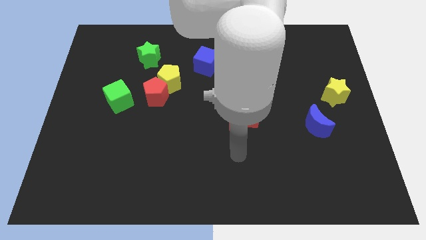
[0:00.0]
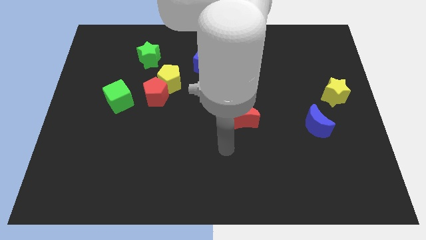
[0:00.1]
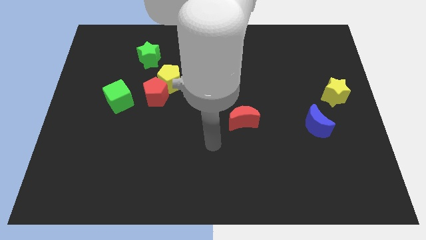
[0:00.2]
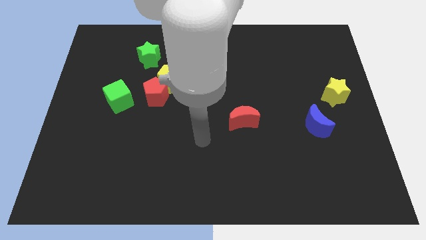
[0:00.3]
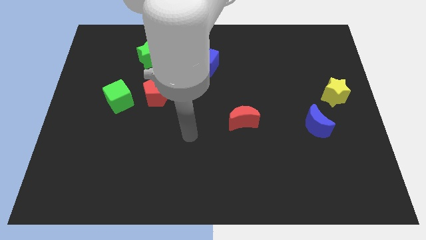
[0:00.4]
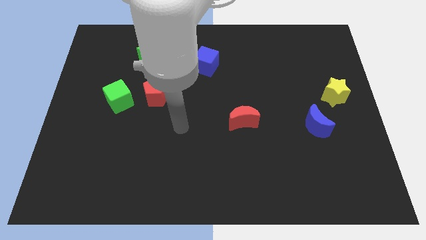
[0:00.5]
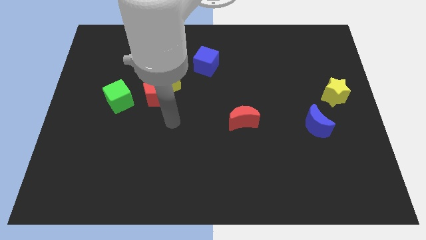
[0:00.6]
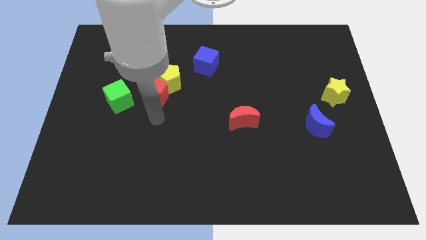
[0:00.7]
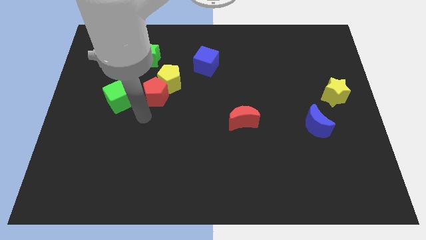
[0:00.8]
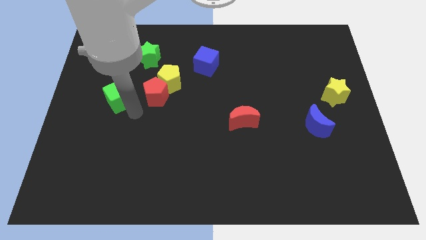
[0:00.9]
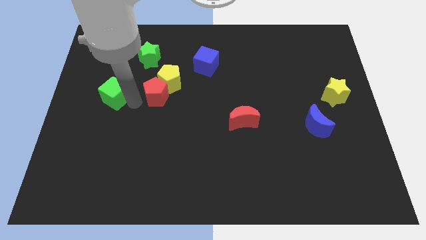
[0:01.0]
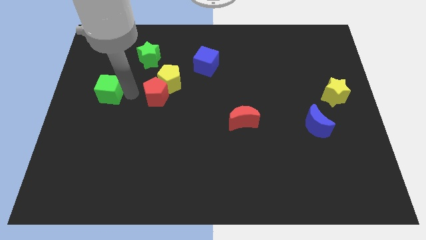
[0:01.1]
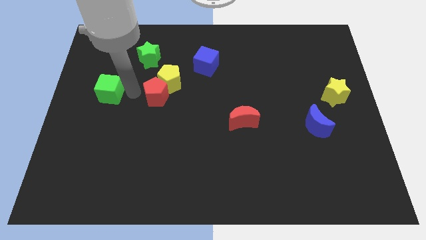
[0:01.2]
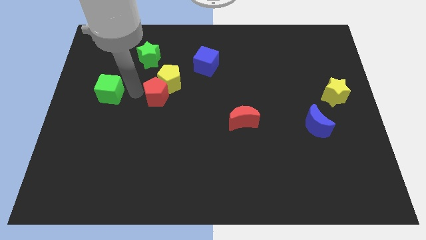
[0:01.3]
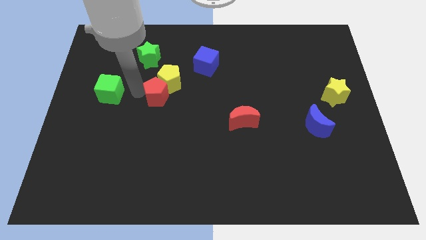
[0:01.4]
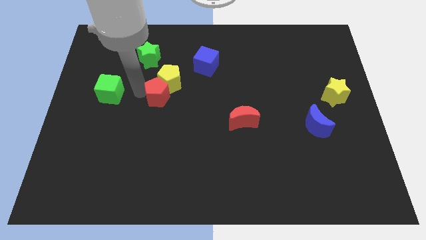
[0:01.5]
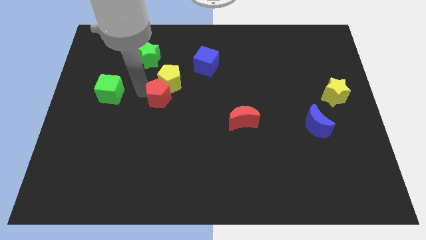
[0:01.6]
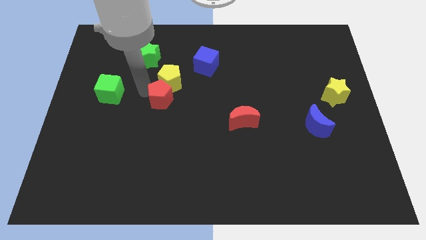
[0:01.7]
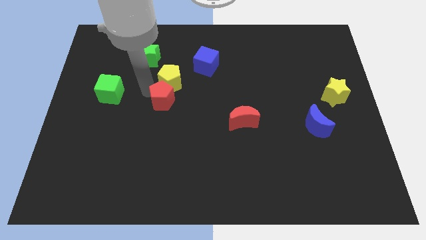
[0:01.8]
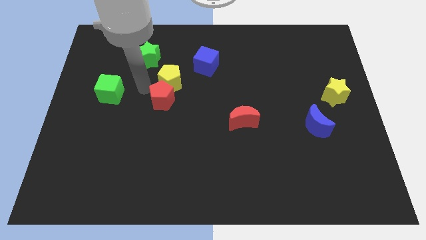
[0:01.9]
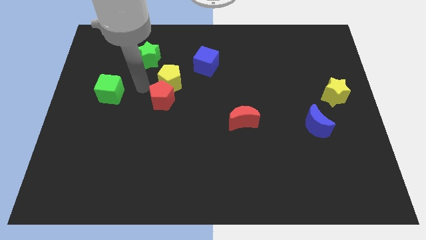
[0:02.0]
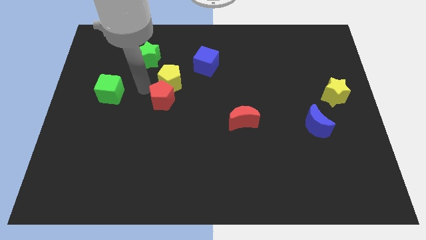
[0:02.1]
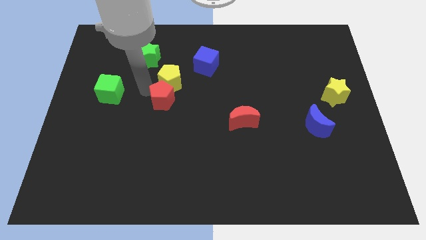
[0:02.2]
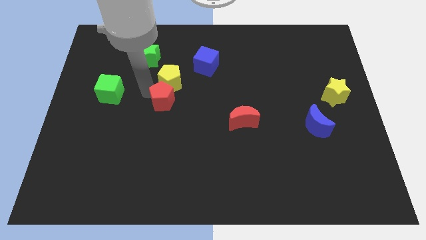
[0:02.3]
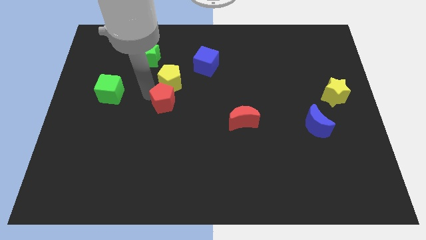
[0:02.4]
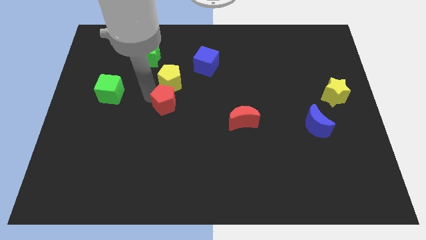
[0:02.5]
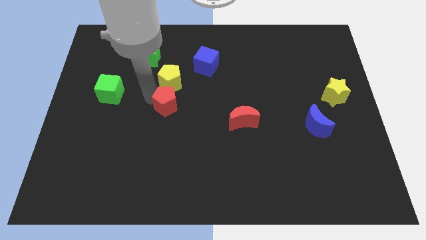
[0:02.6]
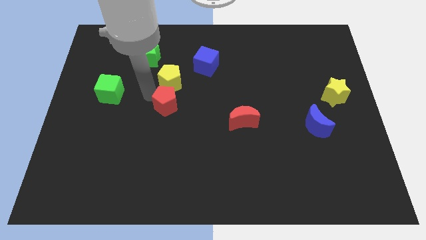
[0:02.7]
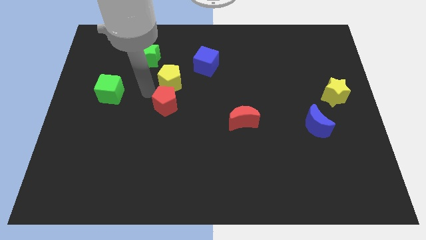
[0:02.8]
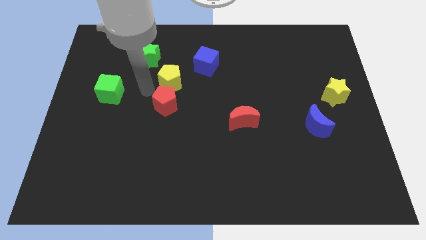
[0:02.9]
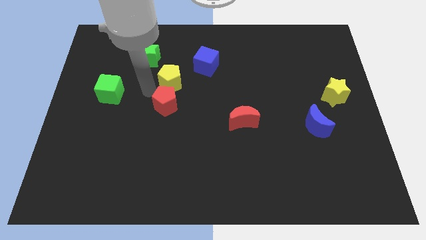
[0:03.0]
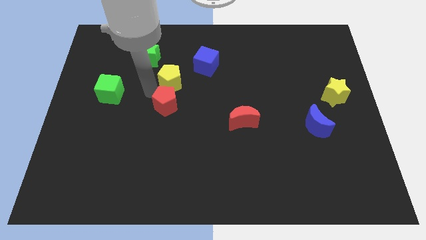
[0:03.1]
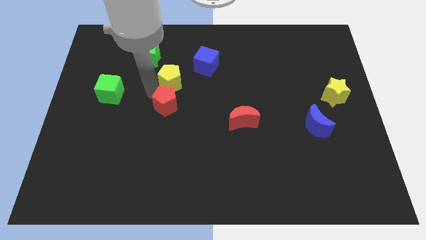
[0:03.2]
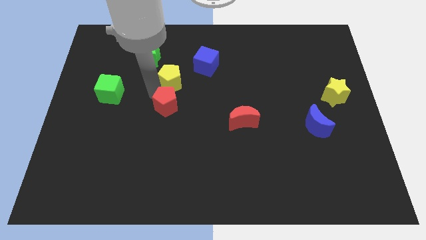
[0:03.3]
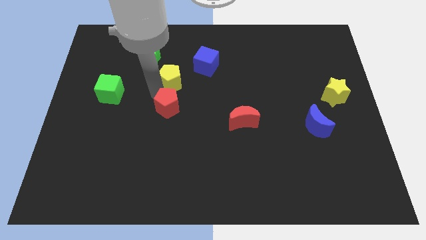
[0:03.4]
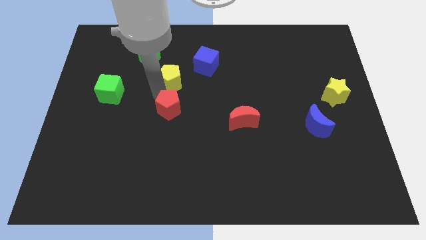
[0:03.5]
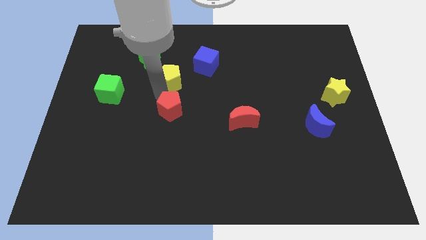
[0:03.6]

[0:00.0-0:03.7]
move the red pentagon away from the yellow pentagon and green cube

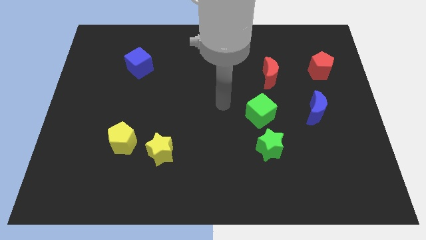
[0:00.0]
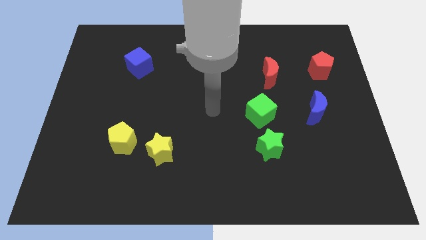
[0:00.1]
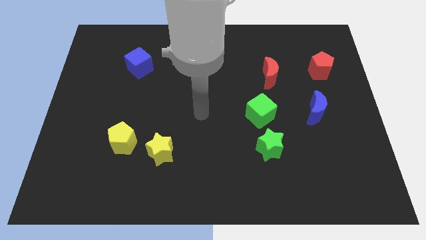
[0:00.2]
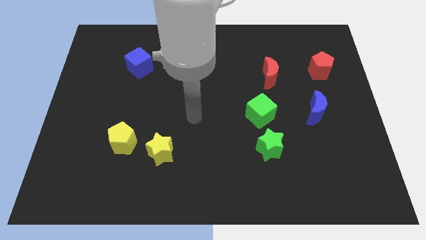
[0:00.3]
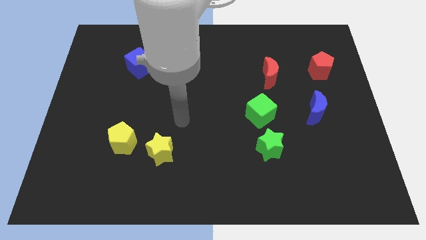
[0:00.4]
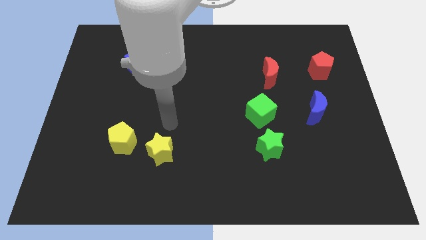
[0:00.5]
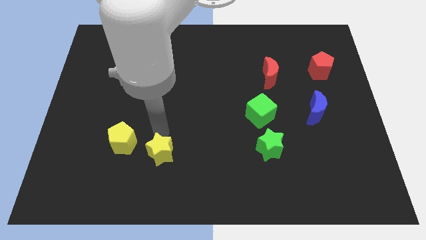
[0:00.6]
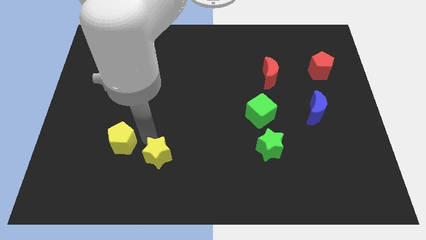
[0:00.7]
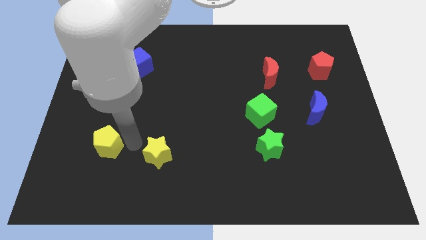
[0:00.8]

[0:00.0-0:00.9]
separate the yellow star from the yellow pentagon

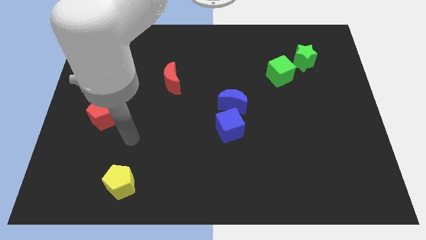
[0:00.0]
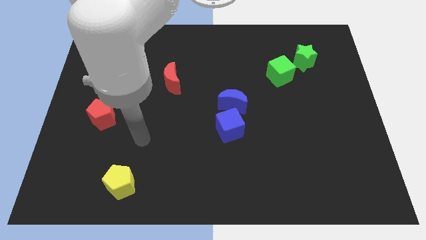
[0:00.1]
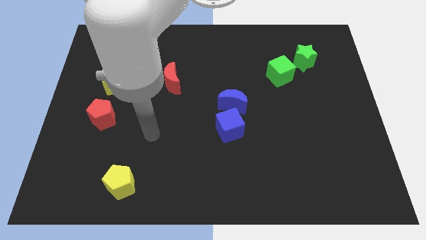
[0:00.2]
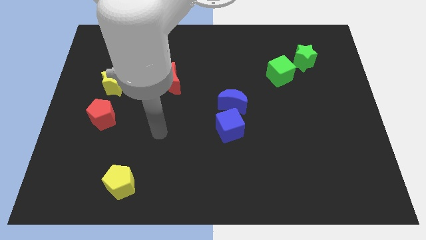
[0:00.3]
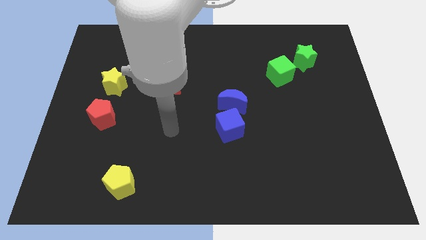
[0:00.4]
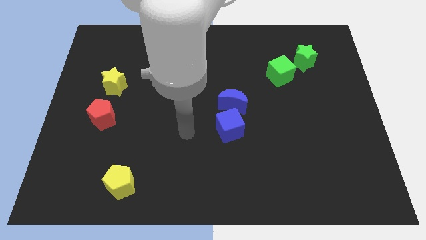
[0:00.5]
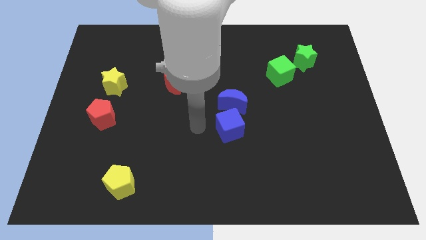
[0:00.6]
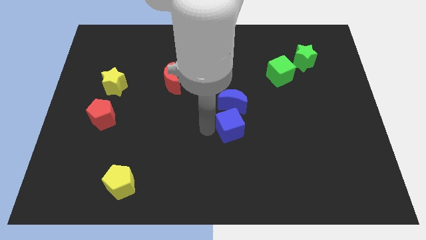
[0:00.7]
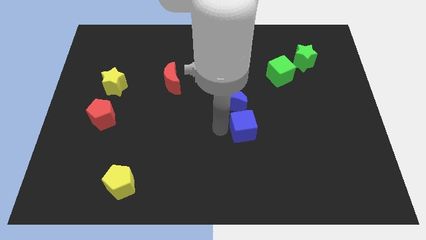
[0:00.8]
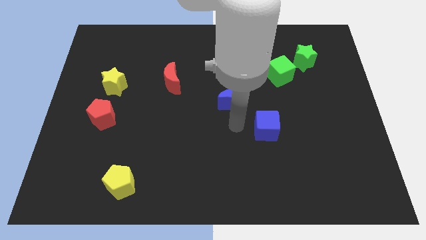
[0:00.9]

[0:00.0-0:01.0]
pull the blue moon apart from the blue cube

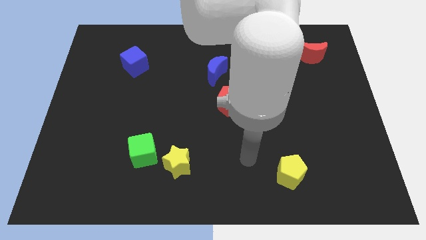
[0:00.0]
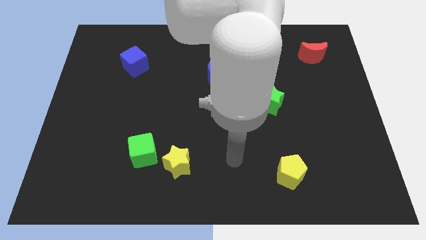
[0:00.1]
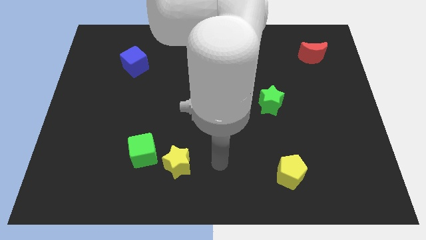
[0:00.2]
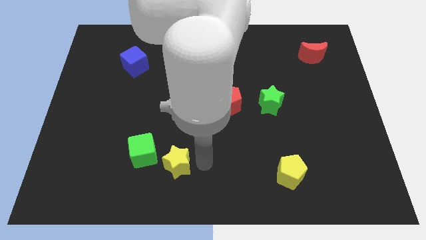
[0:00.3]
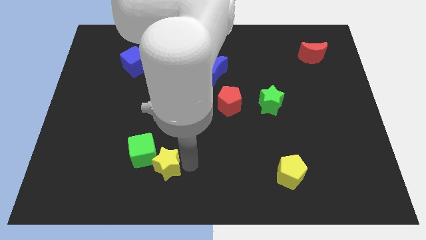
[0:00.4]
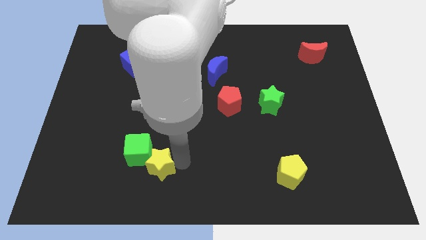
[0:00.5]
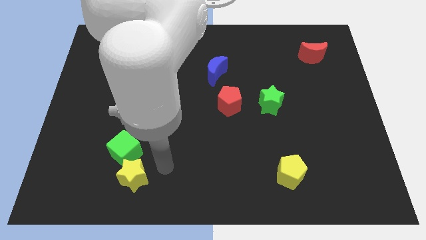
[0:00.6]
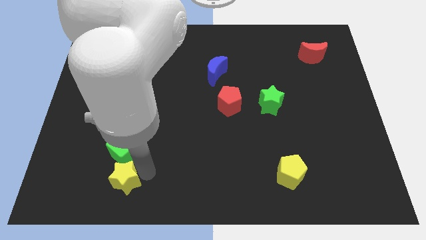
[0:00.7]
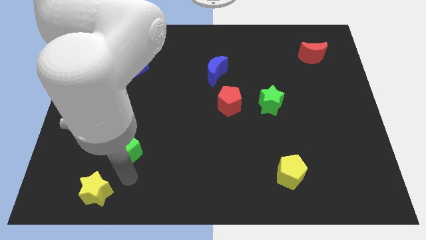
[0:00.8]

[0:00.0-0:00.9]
move the green cube away from the yellow star

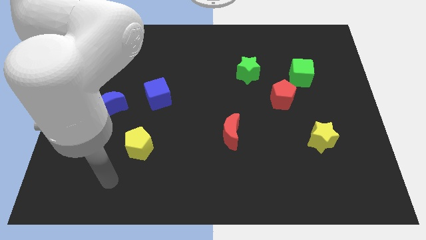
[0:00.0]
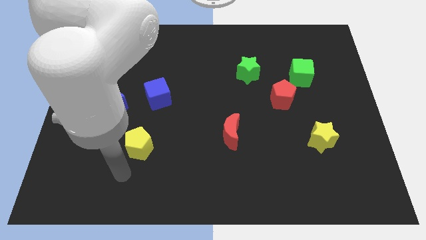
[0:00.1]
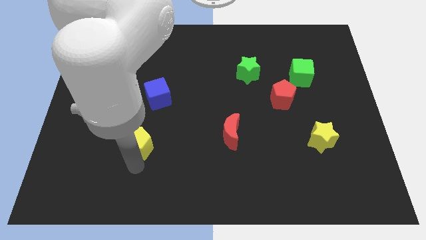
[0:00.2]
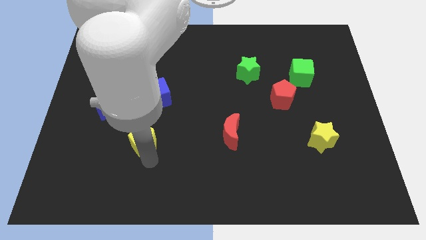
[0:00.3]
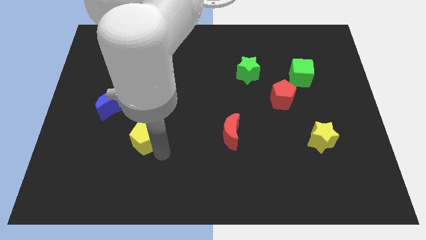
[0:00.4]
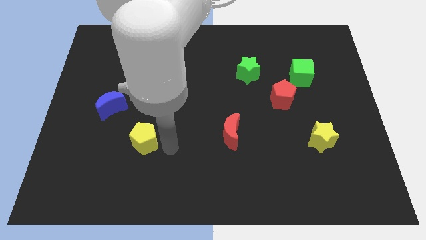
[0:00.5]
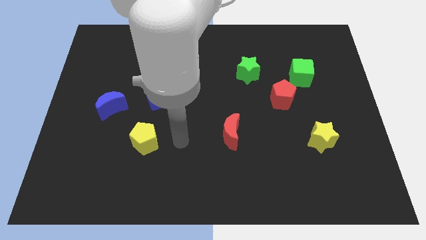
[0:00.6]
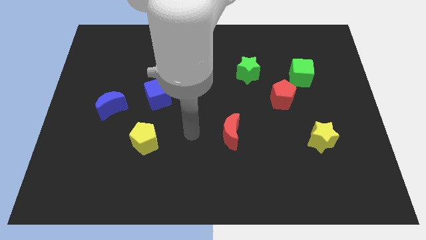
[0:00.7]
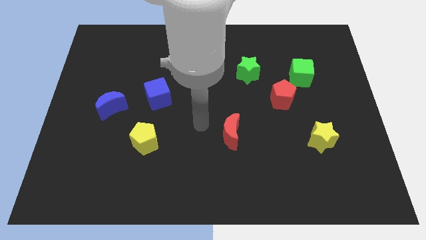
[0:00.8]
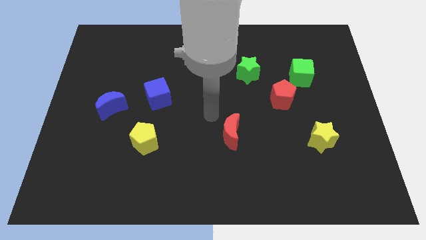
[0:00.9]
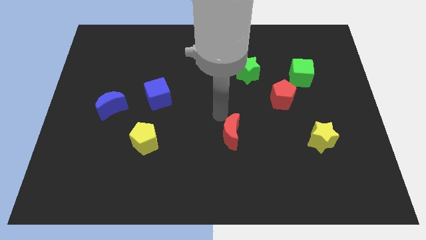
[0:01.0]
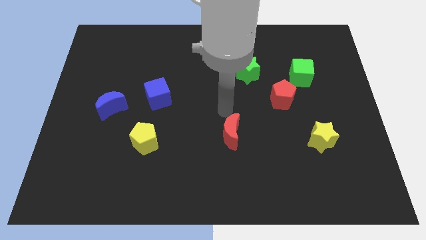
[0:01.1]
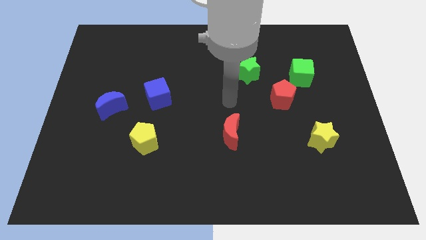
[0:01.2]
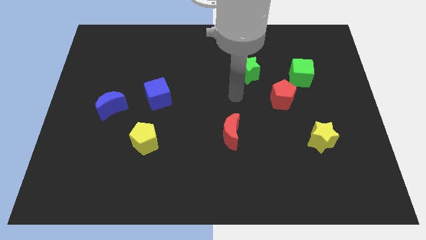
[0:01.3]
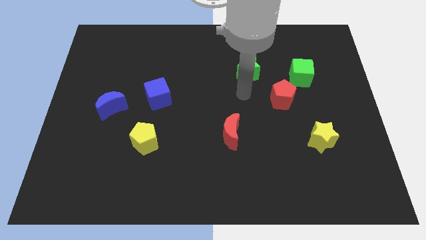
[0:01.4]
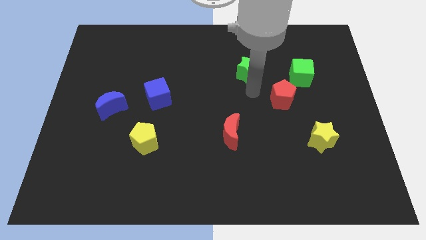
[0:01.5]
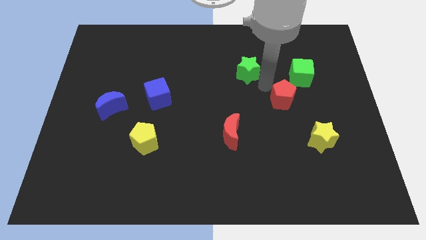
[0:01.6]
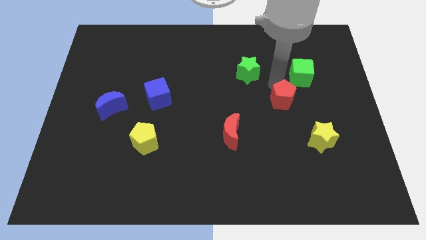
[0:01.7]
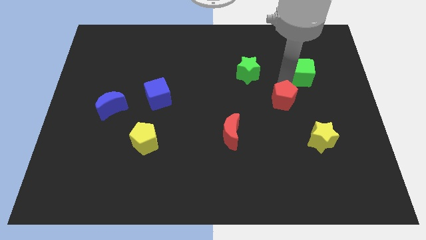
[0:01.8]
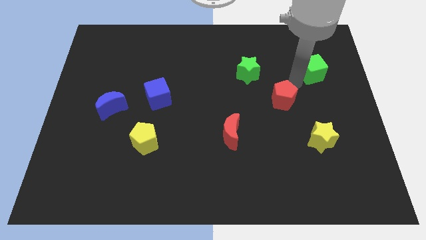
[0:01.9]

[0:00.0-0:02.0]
separate the red pentagon from the green cube

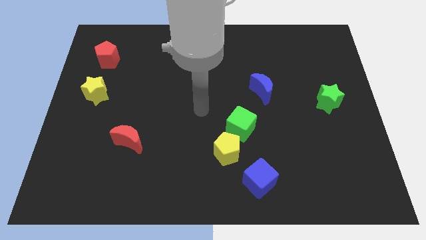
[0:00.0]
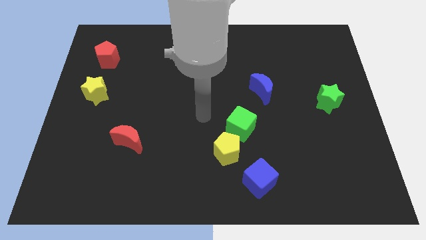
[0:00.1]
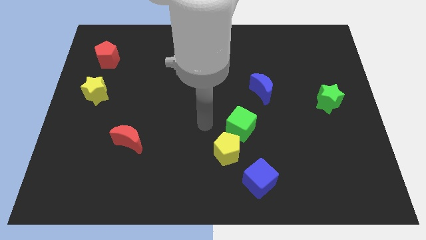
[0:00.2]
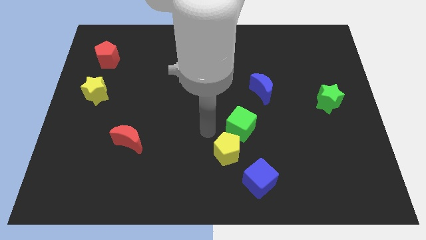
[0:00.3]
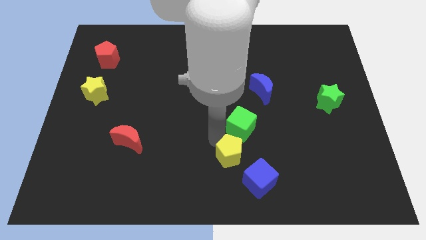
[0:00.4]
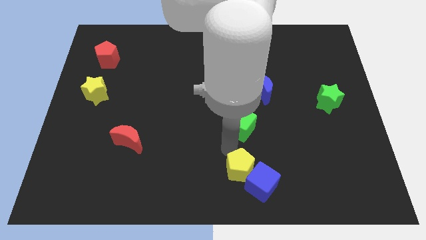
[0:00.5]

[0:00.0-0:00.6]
move the green cube away from the yellow pentagon

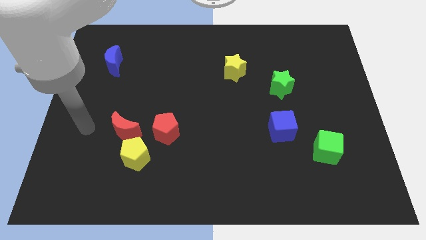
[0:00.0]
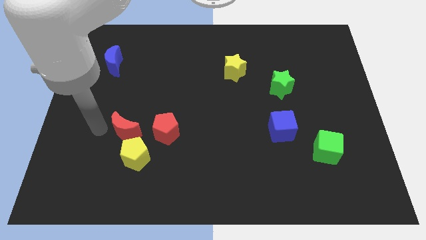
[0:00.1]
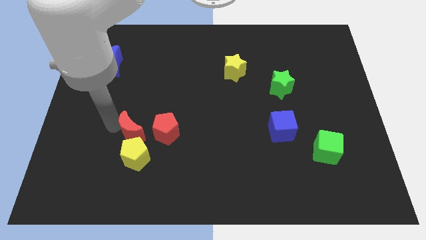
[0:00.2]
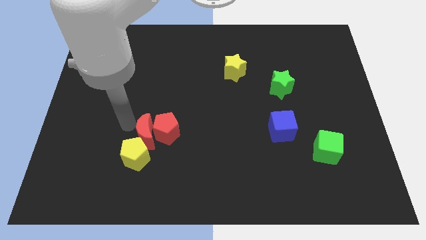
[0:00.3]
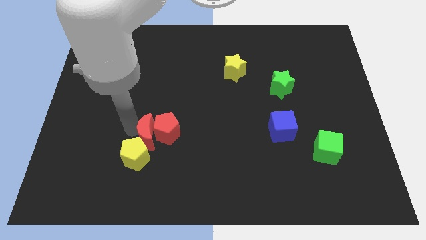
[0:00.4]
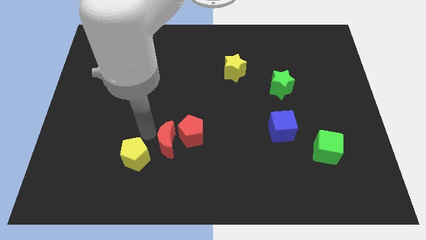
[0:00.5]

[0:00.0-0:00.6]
pull the yellow pentagon apart from the red moon and red pentagon
